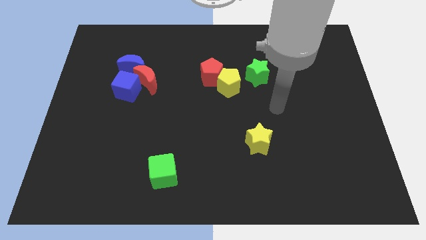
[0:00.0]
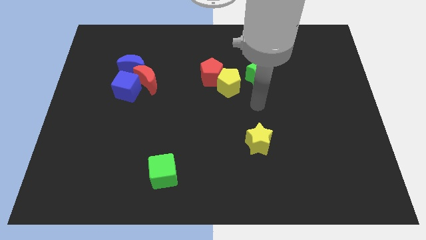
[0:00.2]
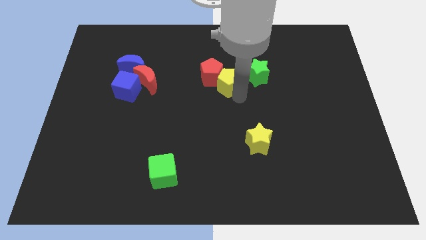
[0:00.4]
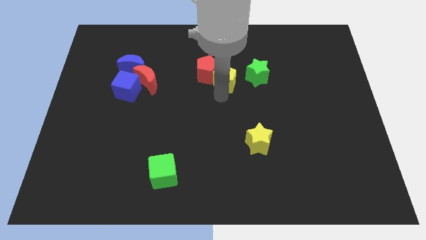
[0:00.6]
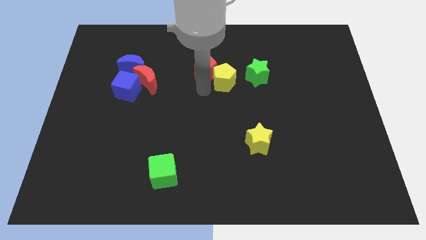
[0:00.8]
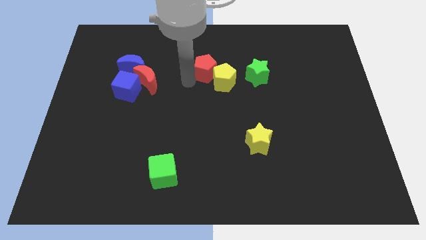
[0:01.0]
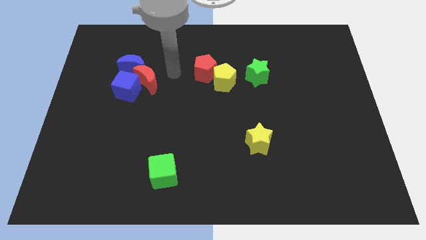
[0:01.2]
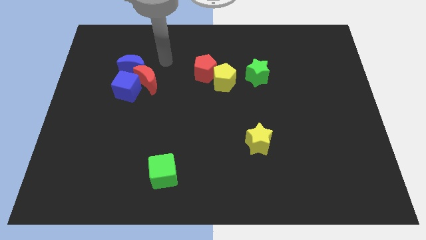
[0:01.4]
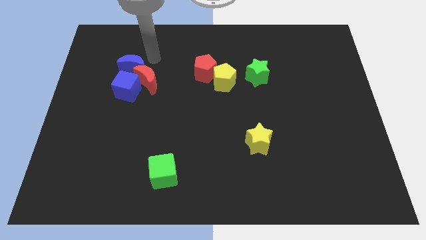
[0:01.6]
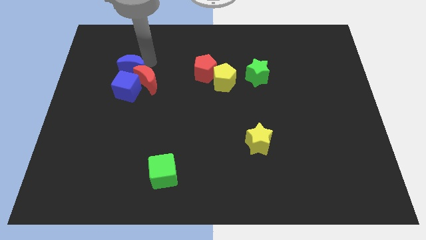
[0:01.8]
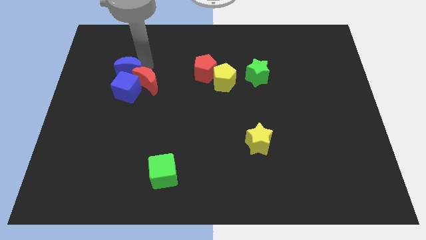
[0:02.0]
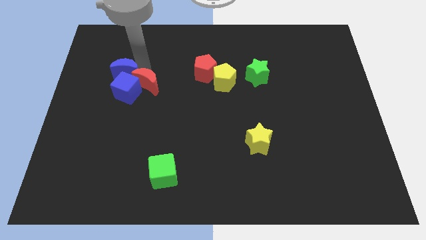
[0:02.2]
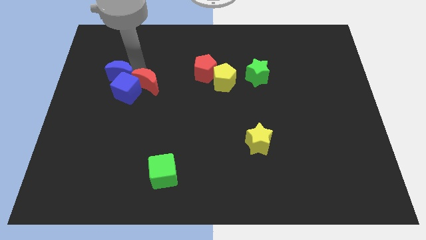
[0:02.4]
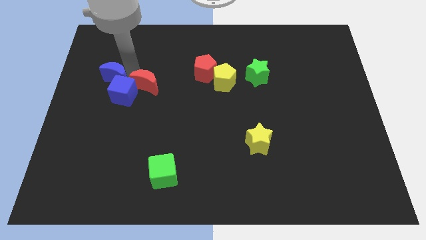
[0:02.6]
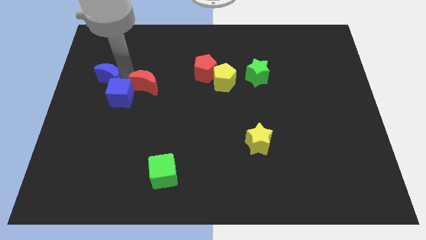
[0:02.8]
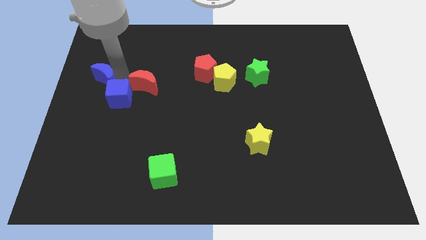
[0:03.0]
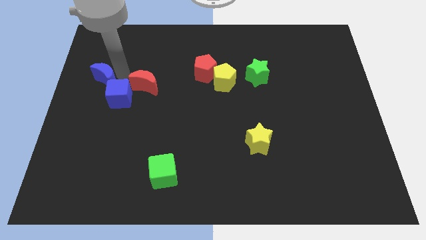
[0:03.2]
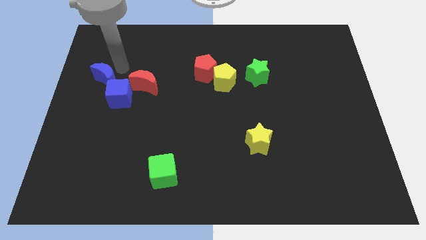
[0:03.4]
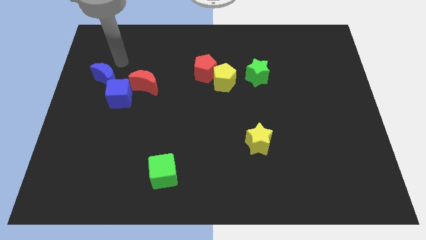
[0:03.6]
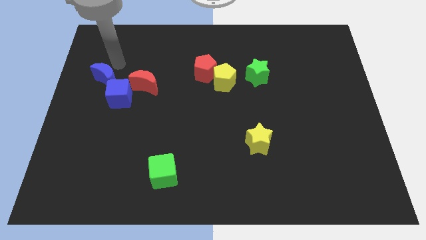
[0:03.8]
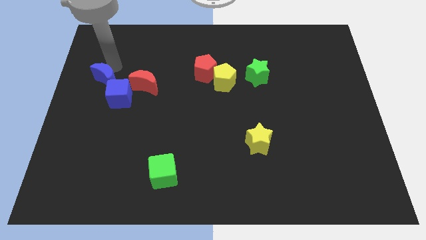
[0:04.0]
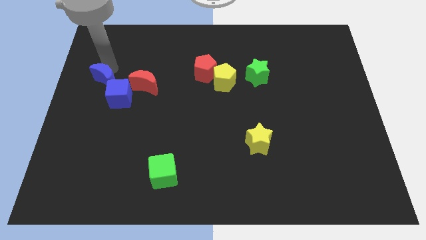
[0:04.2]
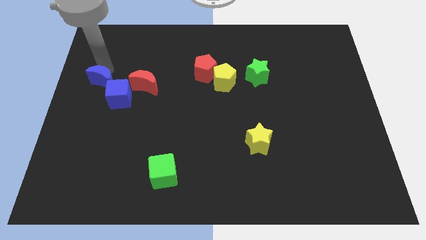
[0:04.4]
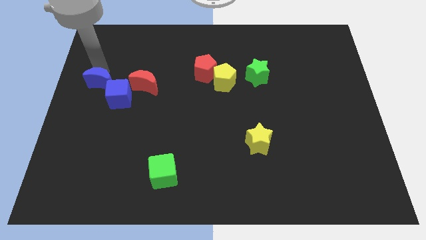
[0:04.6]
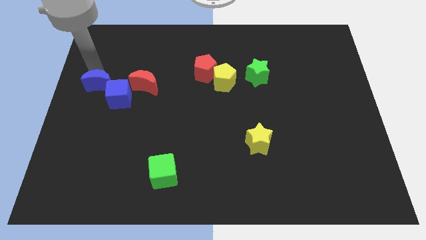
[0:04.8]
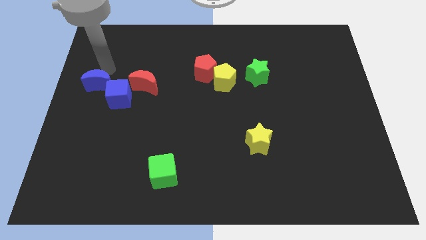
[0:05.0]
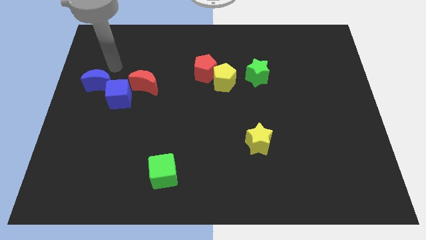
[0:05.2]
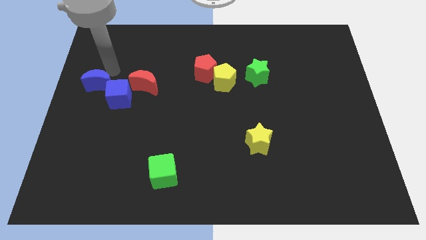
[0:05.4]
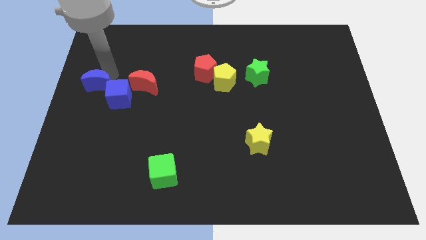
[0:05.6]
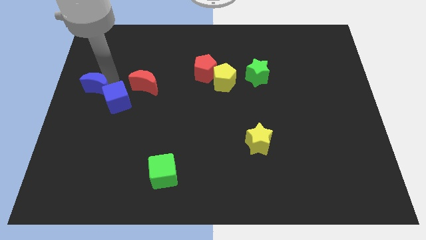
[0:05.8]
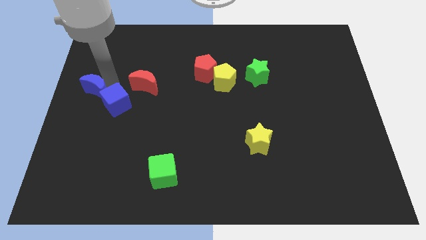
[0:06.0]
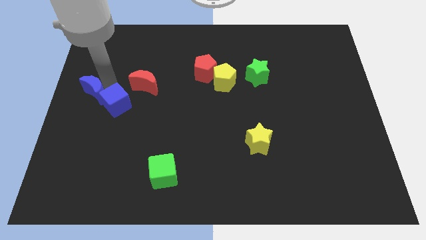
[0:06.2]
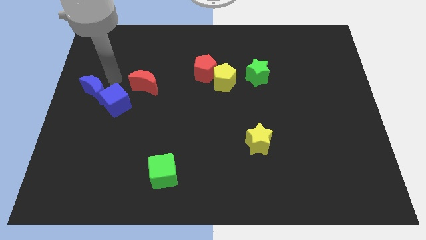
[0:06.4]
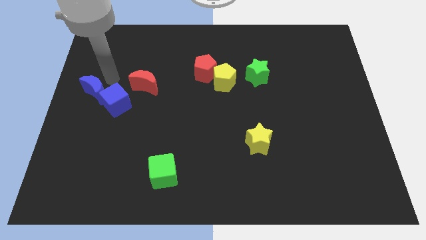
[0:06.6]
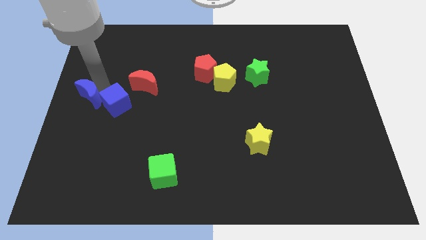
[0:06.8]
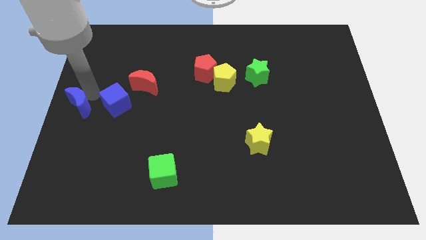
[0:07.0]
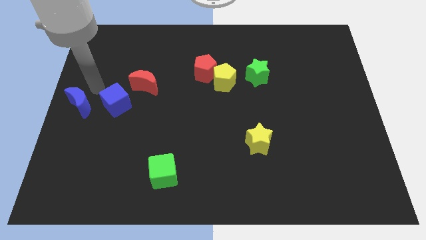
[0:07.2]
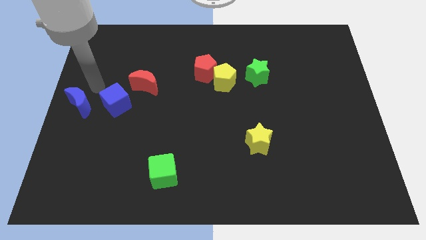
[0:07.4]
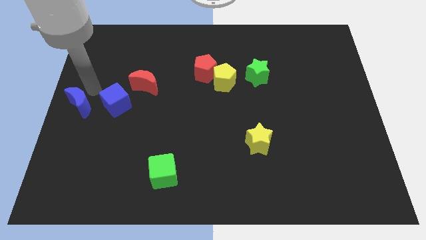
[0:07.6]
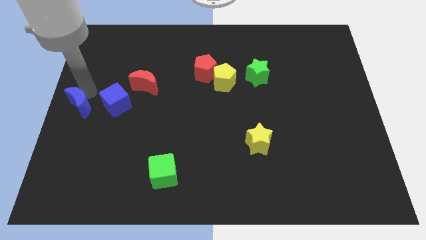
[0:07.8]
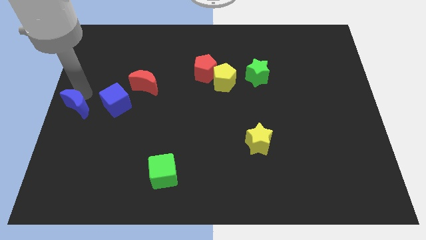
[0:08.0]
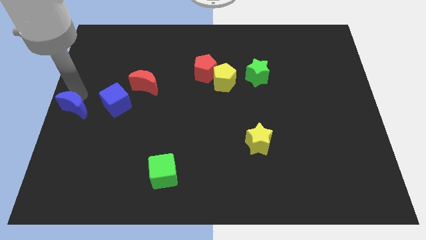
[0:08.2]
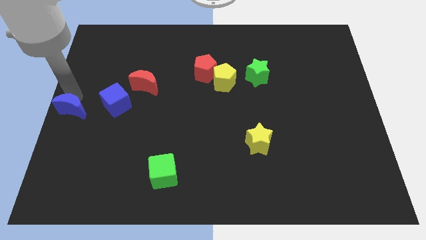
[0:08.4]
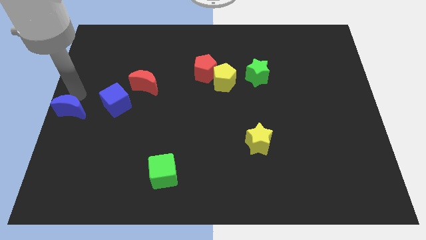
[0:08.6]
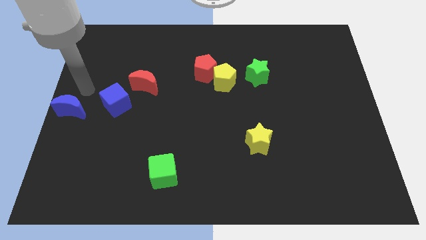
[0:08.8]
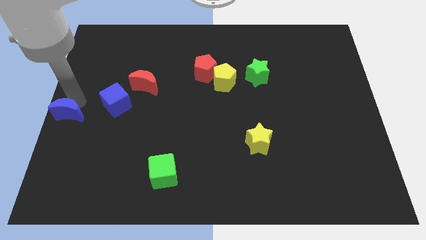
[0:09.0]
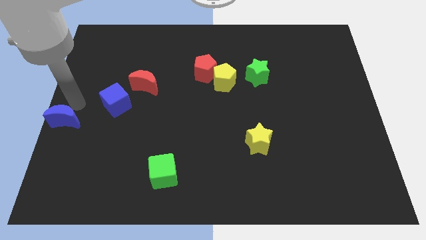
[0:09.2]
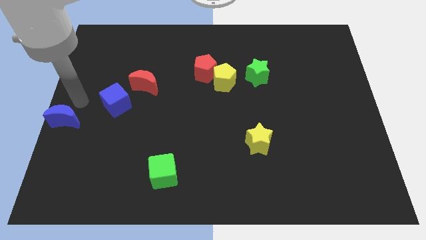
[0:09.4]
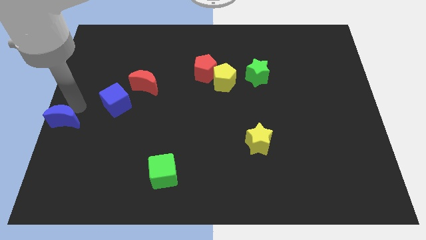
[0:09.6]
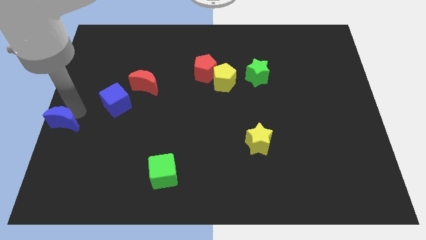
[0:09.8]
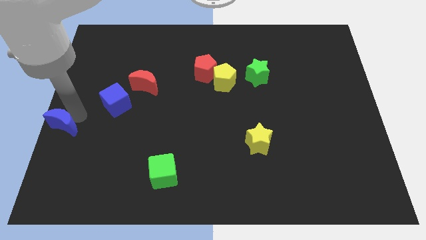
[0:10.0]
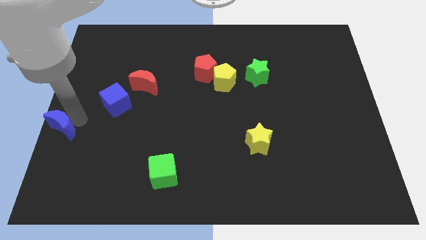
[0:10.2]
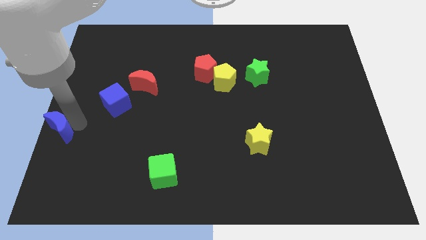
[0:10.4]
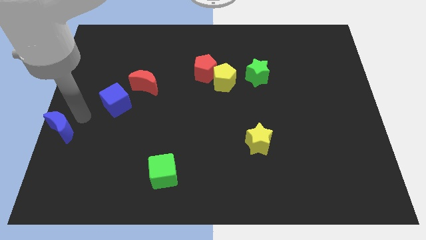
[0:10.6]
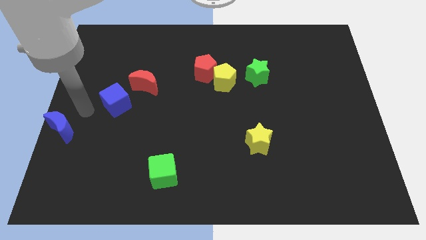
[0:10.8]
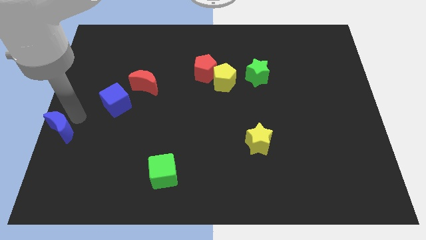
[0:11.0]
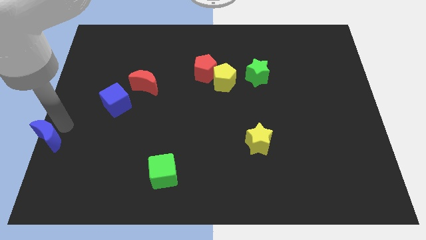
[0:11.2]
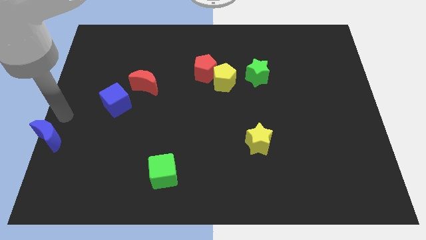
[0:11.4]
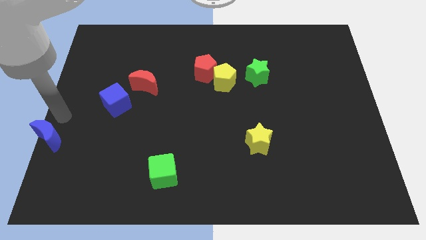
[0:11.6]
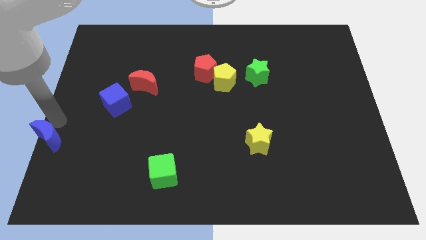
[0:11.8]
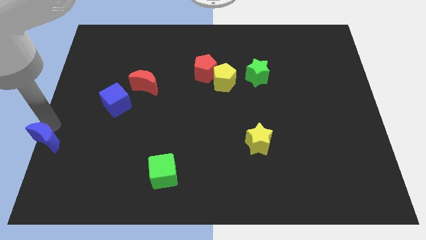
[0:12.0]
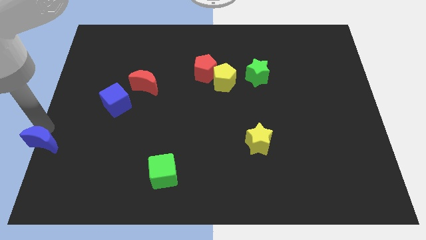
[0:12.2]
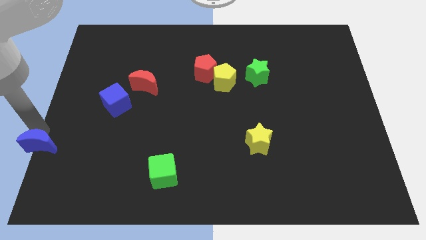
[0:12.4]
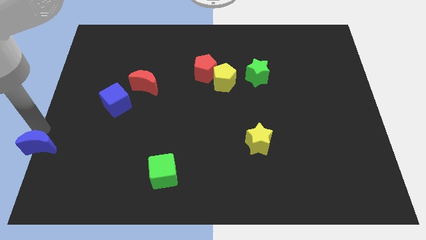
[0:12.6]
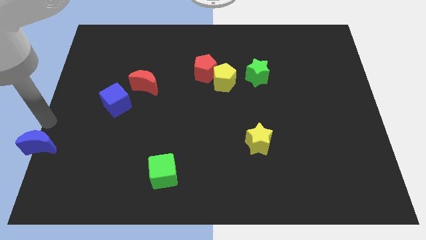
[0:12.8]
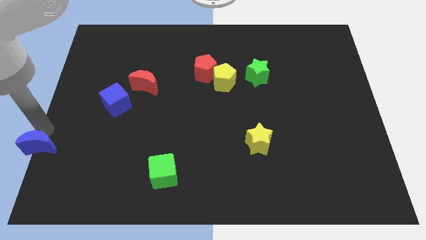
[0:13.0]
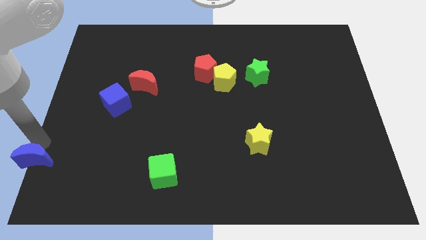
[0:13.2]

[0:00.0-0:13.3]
put the blue moon to the lower left corner
